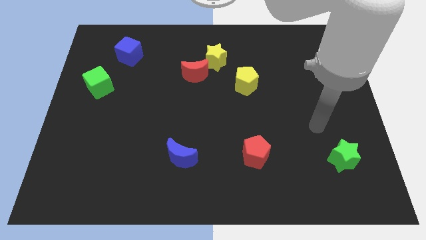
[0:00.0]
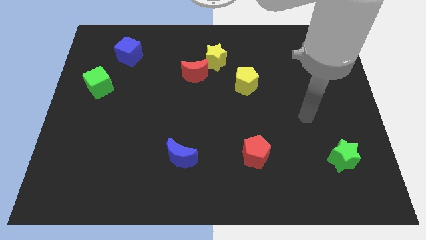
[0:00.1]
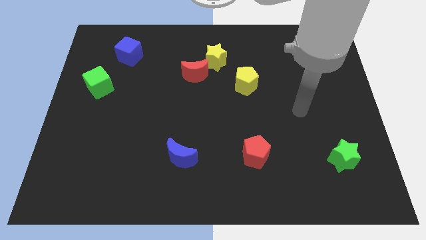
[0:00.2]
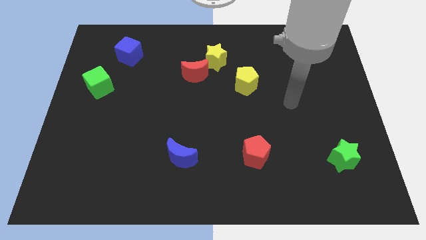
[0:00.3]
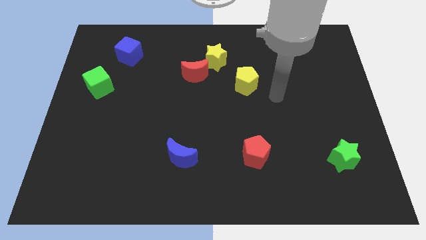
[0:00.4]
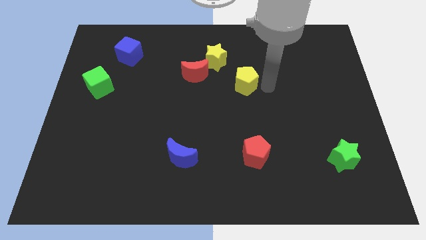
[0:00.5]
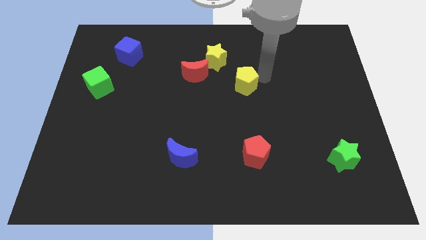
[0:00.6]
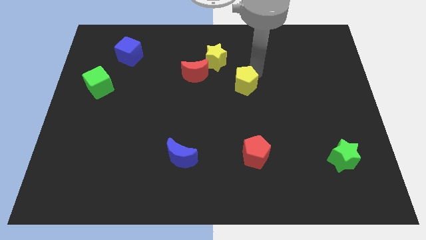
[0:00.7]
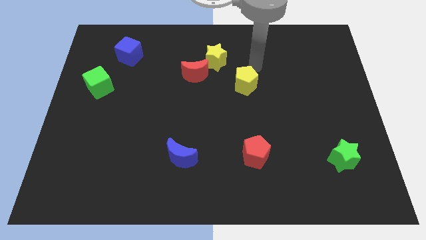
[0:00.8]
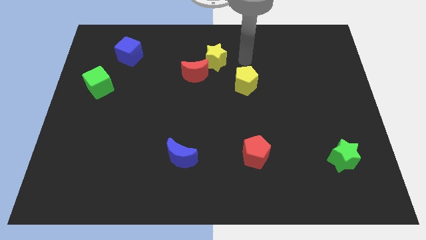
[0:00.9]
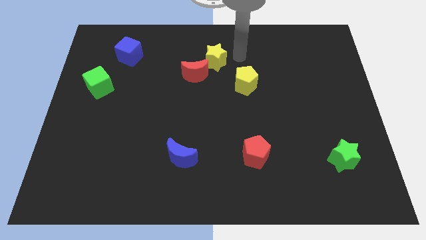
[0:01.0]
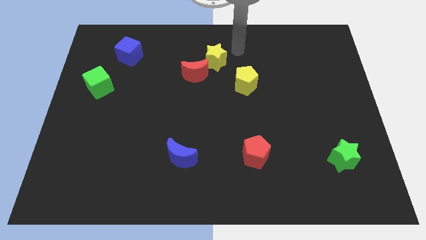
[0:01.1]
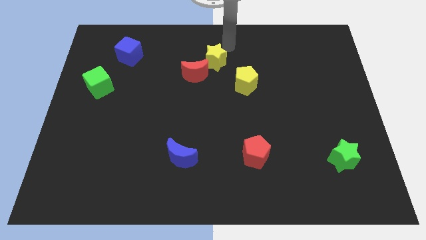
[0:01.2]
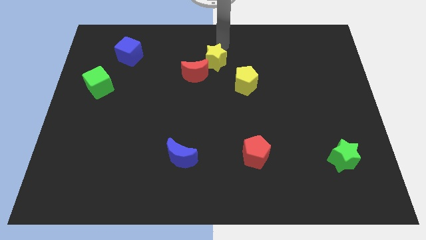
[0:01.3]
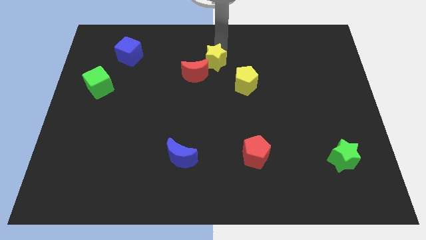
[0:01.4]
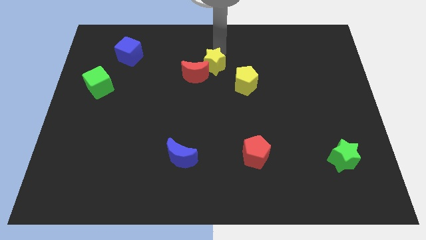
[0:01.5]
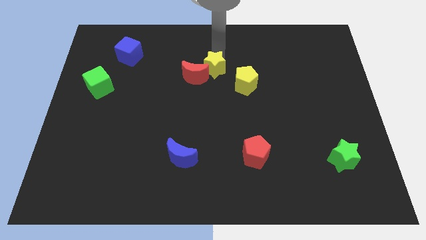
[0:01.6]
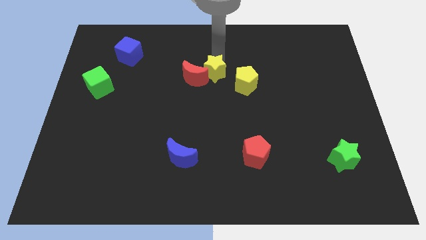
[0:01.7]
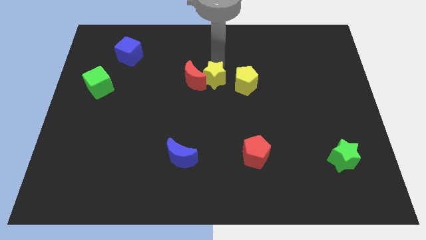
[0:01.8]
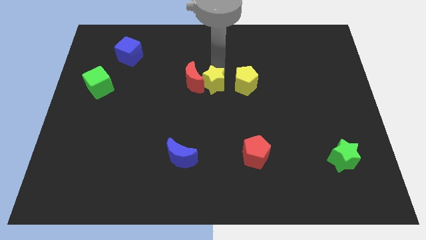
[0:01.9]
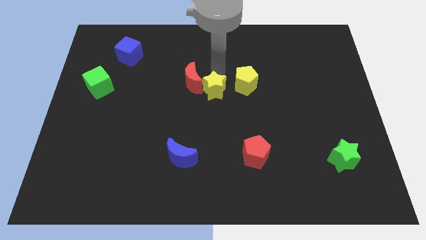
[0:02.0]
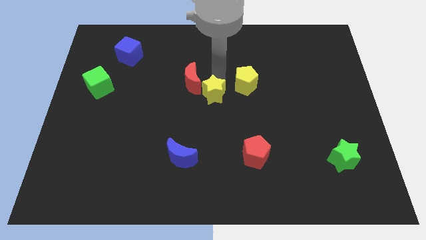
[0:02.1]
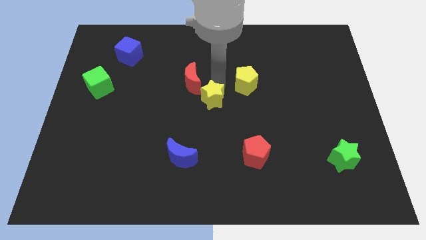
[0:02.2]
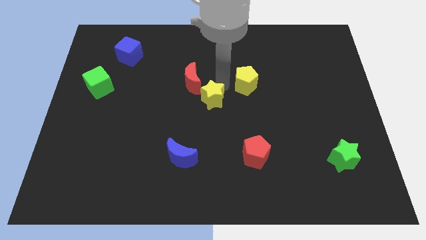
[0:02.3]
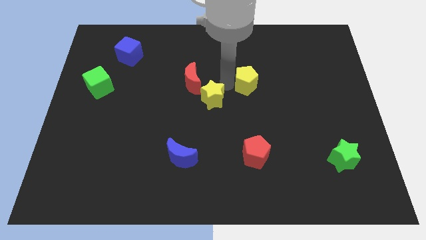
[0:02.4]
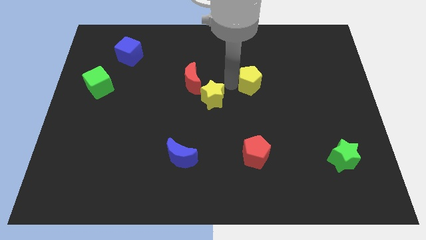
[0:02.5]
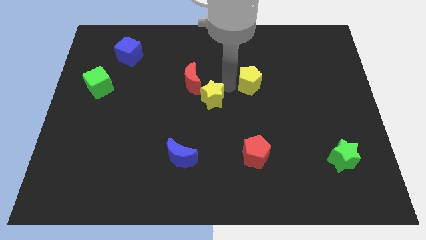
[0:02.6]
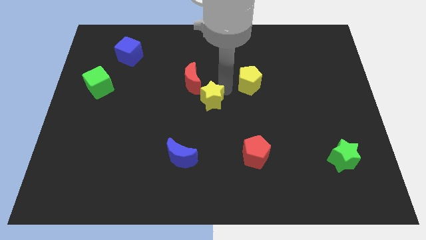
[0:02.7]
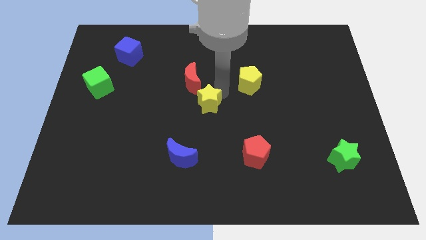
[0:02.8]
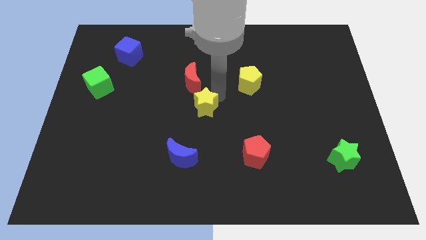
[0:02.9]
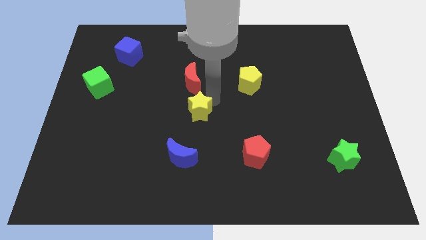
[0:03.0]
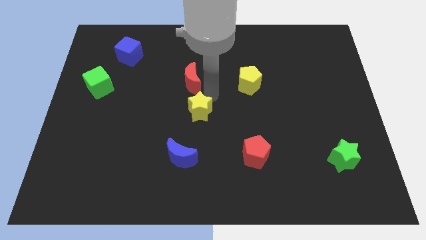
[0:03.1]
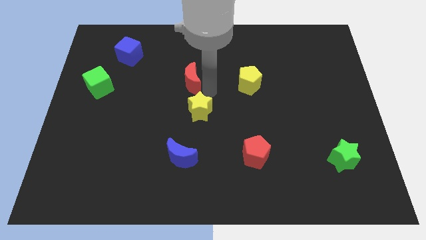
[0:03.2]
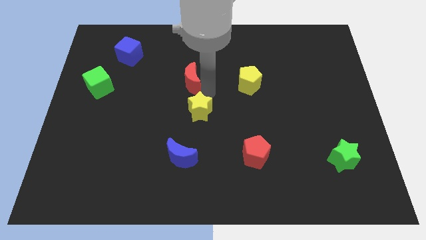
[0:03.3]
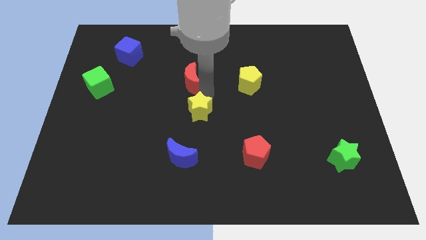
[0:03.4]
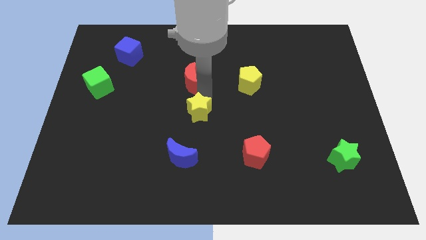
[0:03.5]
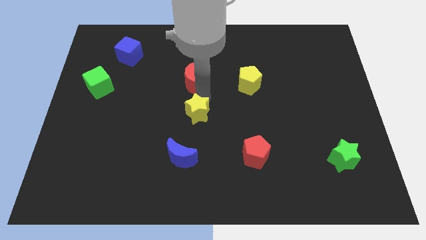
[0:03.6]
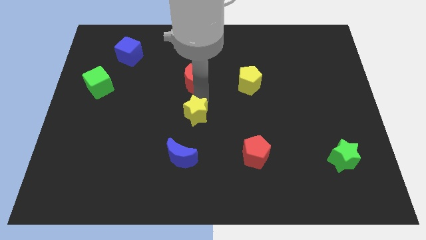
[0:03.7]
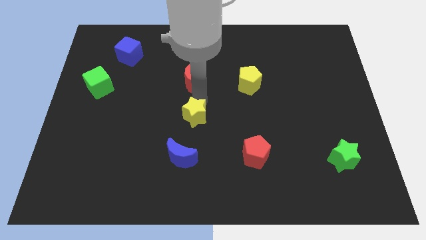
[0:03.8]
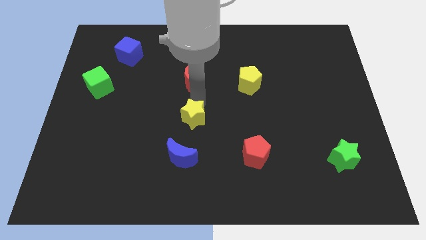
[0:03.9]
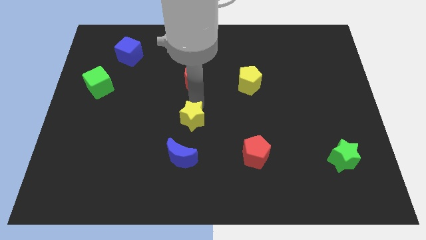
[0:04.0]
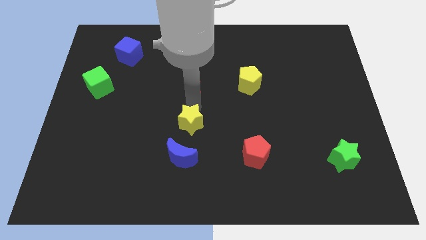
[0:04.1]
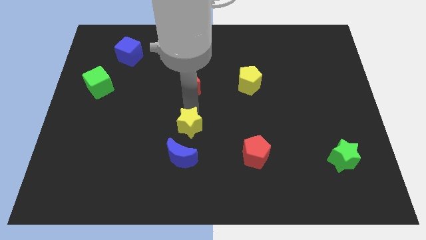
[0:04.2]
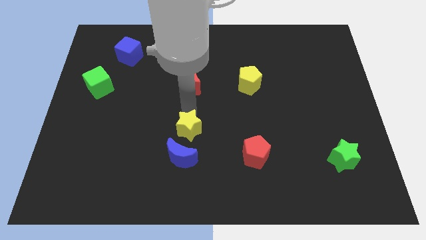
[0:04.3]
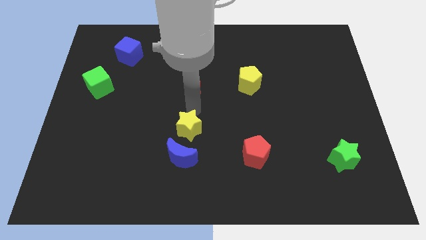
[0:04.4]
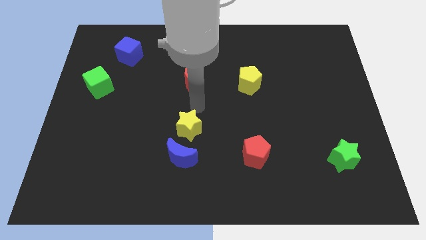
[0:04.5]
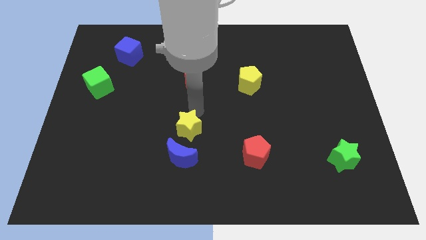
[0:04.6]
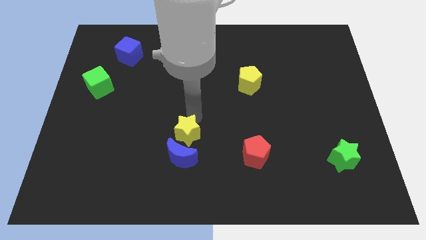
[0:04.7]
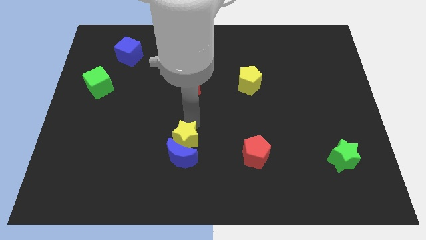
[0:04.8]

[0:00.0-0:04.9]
push the yellow star next to the blue moon

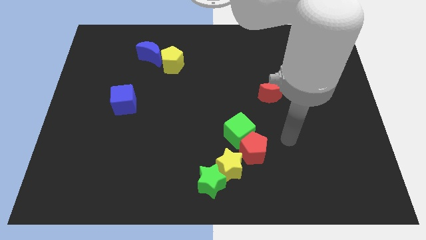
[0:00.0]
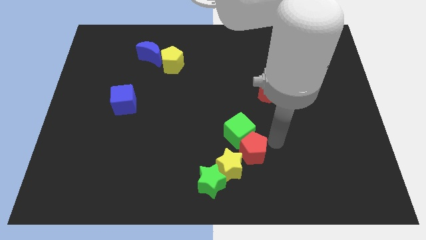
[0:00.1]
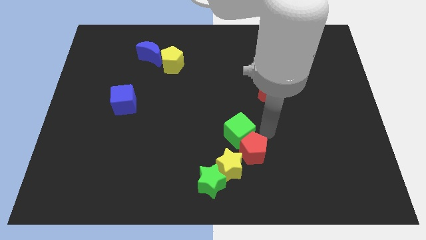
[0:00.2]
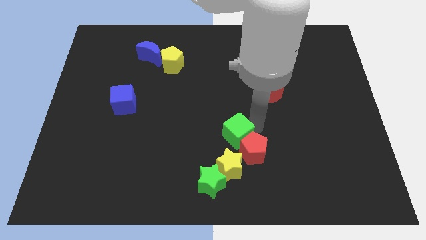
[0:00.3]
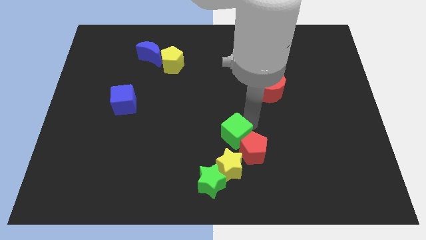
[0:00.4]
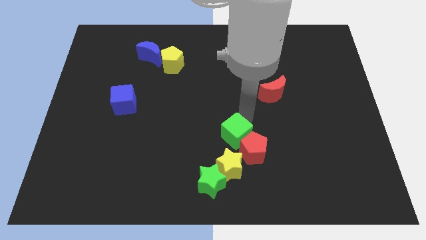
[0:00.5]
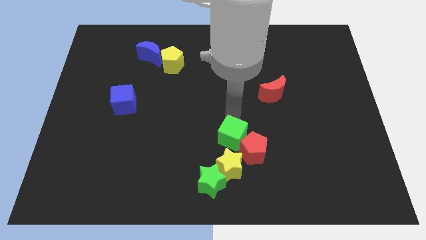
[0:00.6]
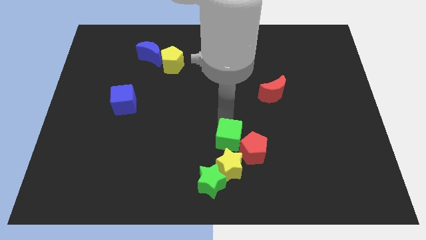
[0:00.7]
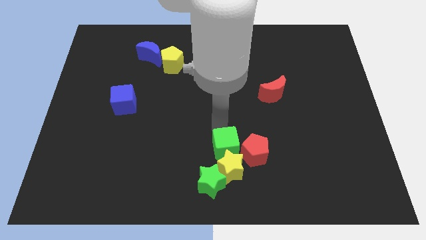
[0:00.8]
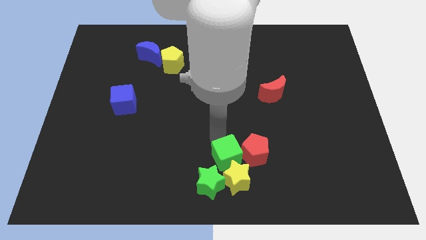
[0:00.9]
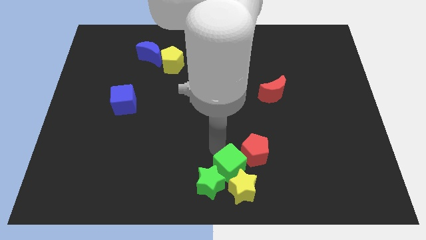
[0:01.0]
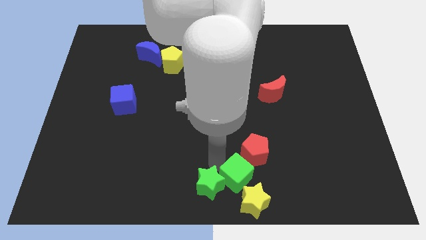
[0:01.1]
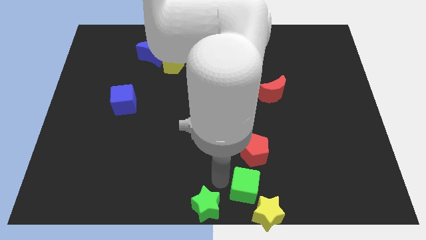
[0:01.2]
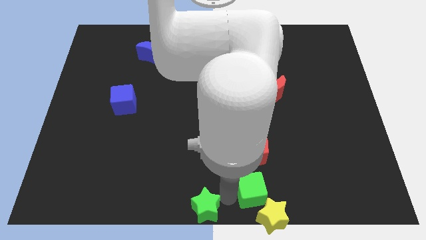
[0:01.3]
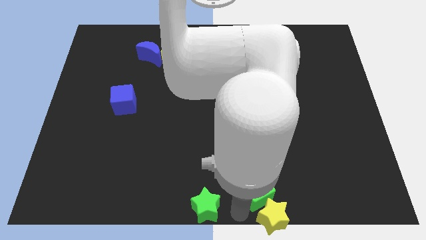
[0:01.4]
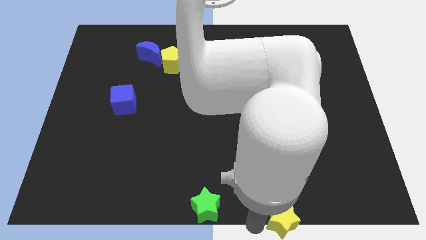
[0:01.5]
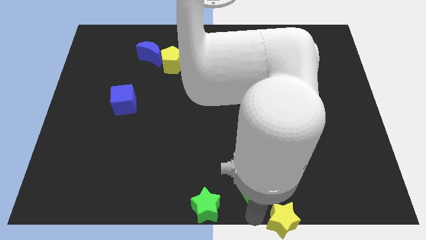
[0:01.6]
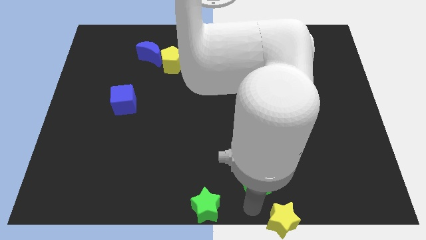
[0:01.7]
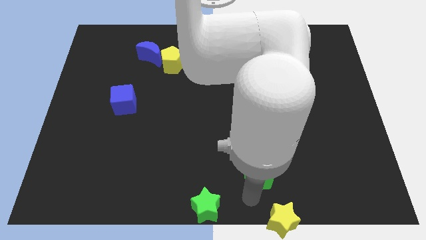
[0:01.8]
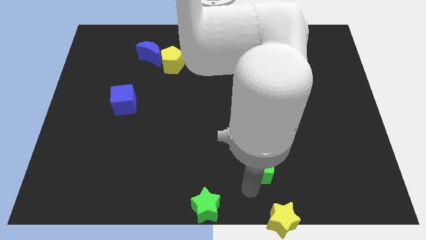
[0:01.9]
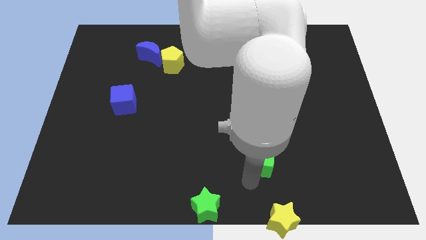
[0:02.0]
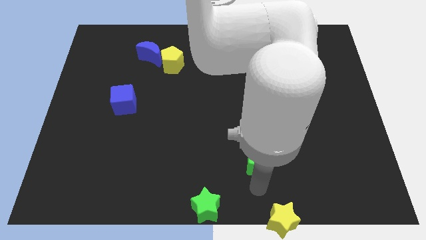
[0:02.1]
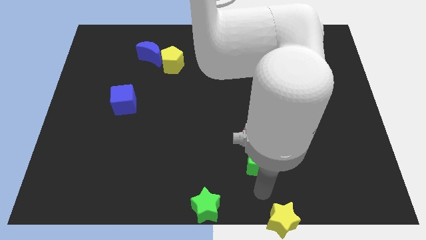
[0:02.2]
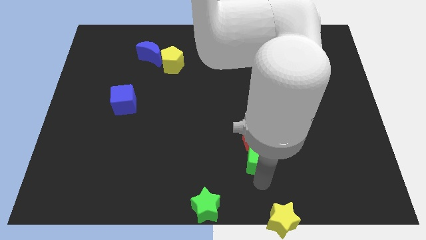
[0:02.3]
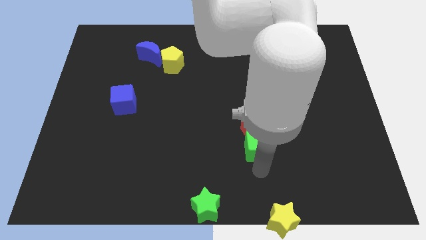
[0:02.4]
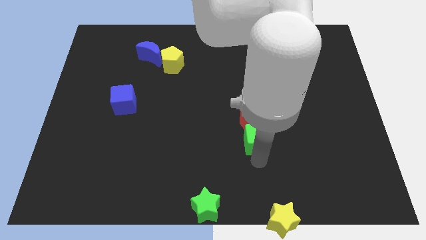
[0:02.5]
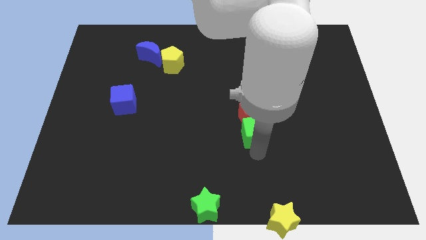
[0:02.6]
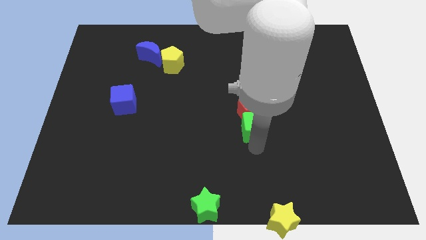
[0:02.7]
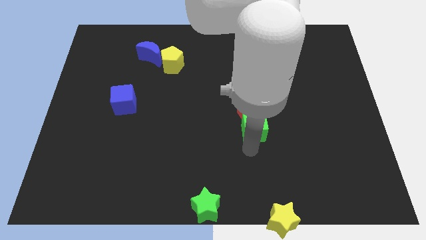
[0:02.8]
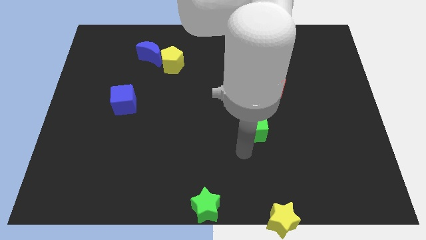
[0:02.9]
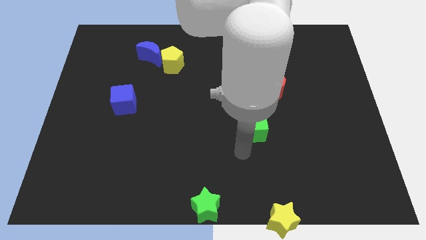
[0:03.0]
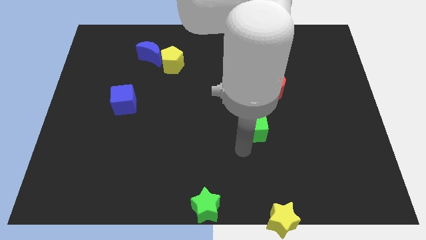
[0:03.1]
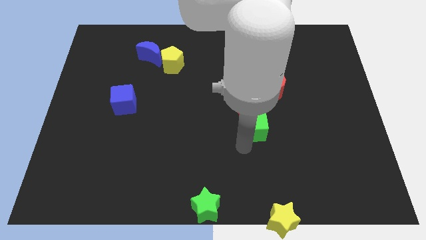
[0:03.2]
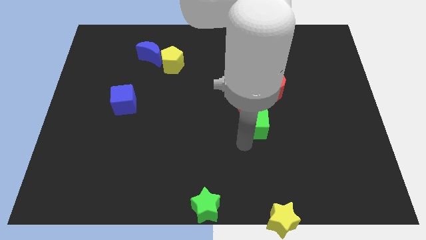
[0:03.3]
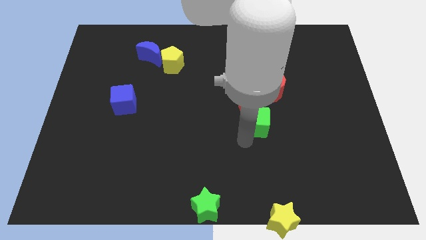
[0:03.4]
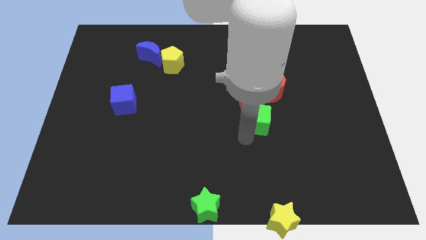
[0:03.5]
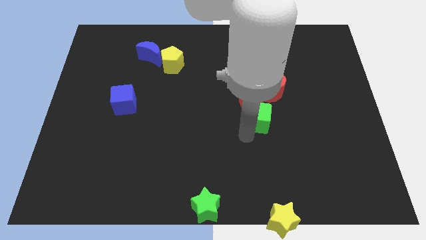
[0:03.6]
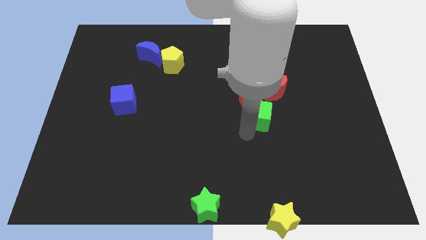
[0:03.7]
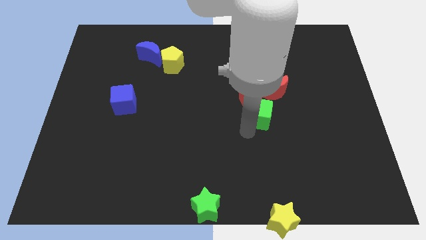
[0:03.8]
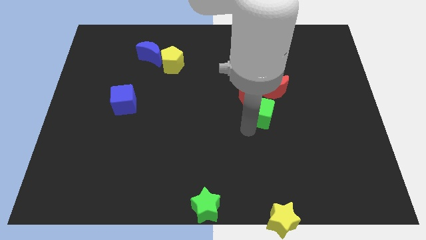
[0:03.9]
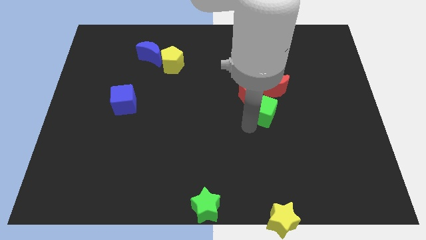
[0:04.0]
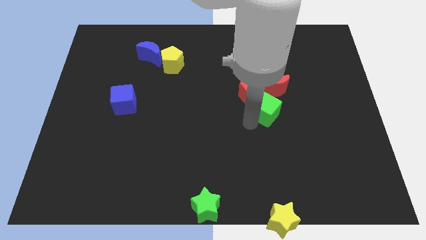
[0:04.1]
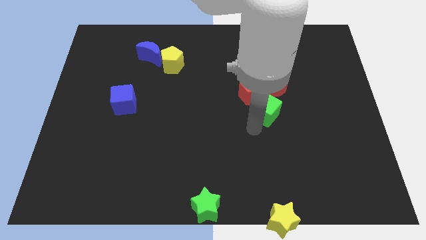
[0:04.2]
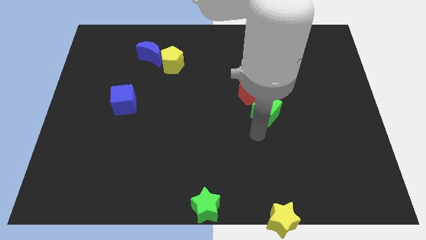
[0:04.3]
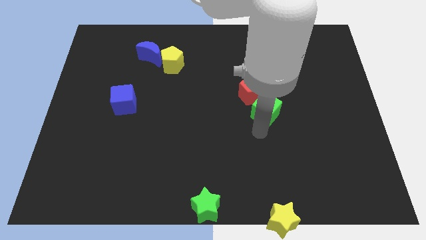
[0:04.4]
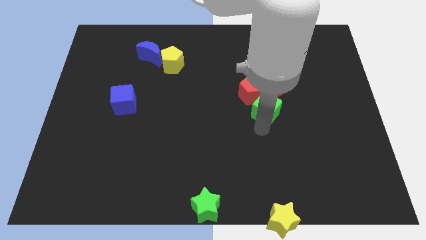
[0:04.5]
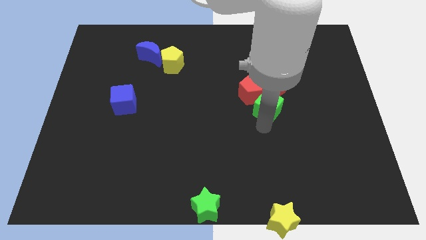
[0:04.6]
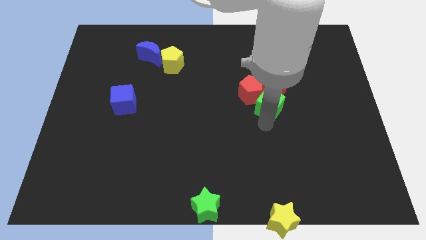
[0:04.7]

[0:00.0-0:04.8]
move the green cube to the red moon
